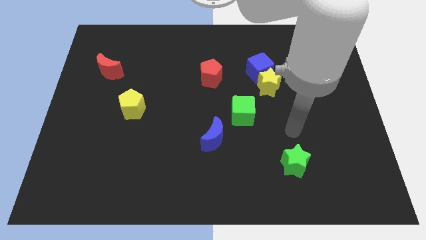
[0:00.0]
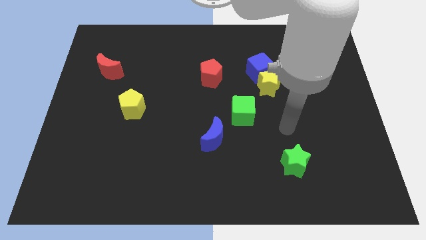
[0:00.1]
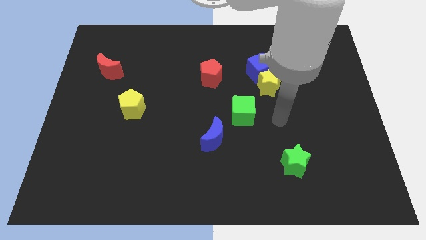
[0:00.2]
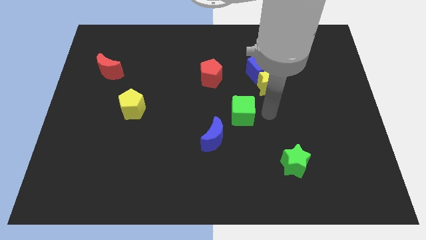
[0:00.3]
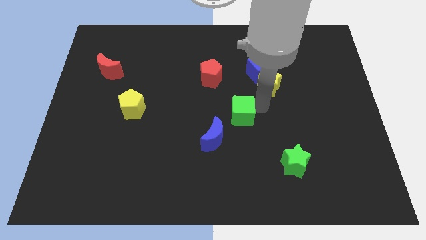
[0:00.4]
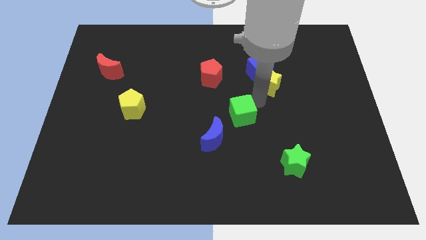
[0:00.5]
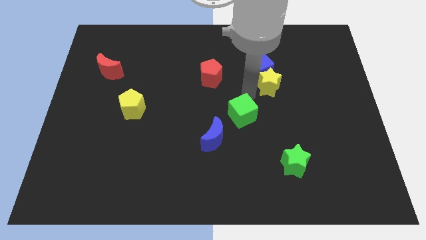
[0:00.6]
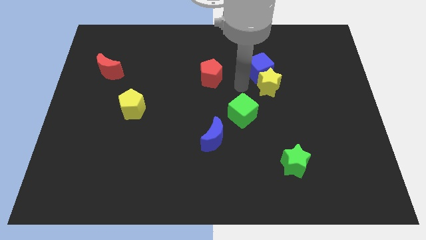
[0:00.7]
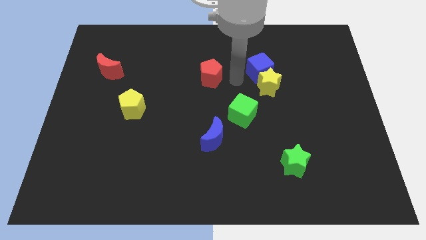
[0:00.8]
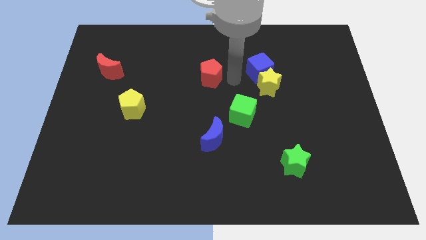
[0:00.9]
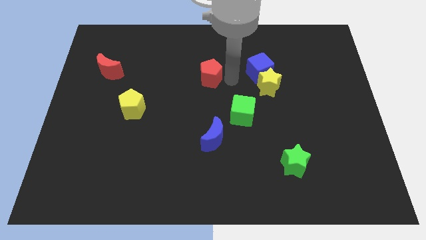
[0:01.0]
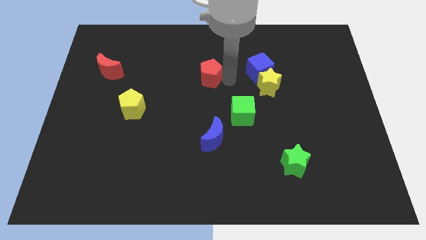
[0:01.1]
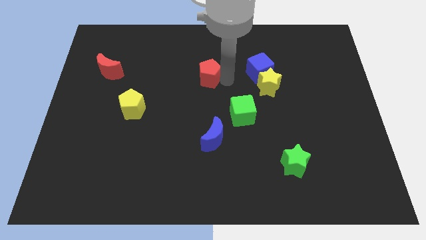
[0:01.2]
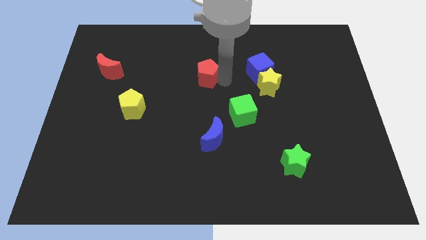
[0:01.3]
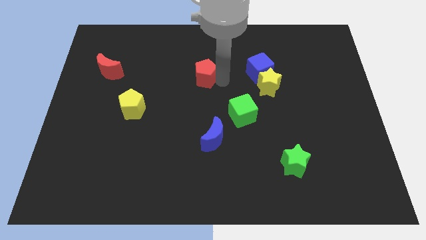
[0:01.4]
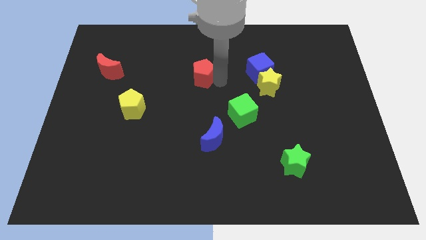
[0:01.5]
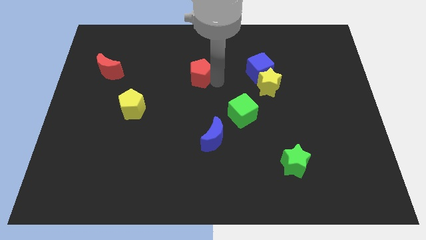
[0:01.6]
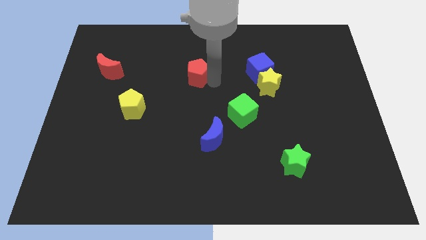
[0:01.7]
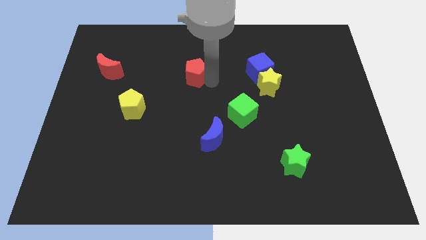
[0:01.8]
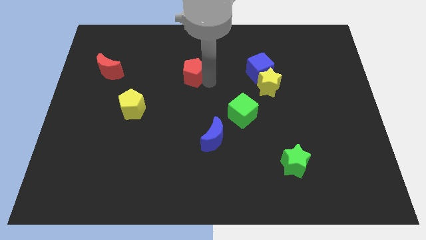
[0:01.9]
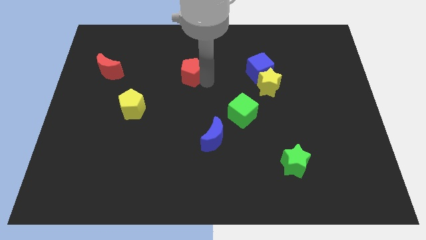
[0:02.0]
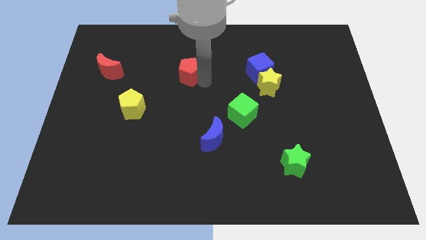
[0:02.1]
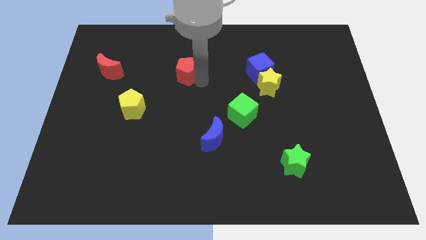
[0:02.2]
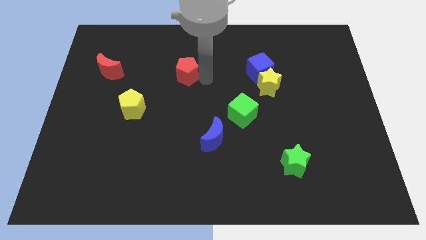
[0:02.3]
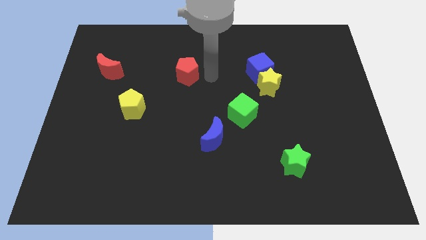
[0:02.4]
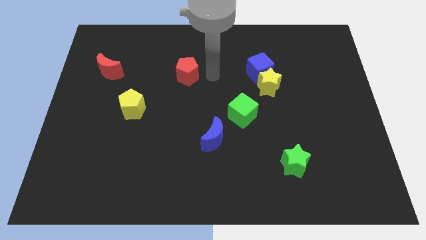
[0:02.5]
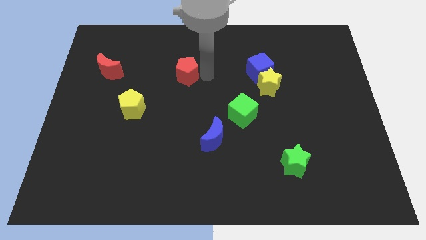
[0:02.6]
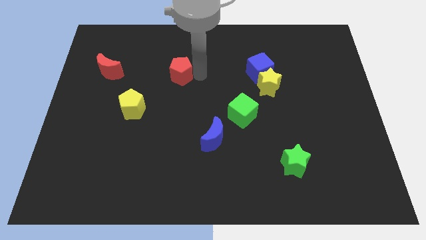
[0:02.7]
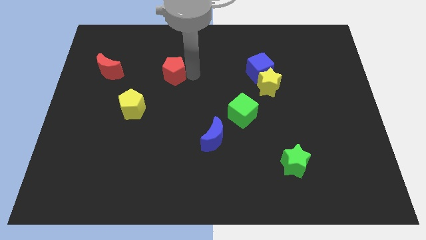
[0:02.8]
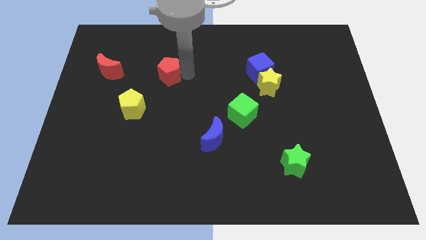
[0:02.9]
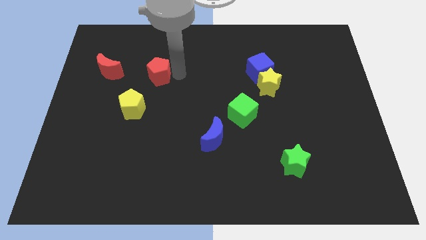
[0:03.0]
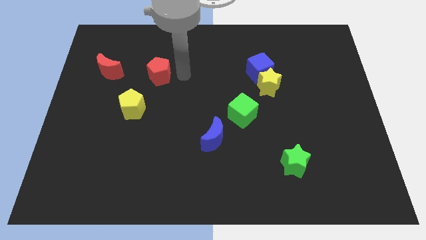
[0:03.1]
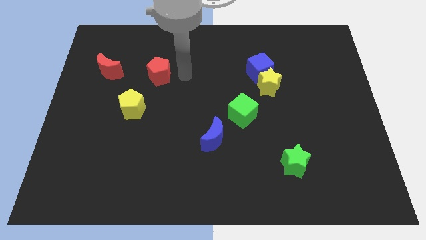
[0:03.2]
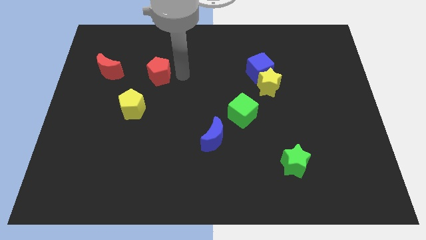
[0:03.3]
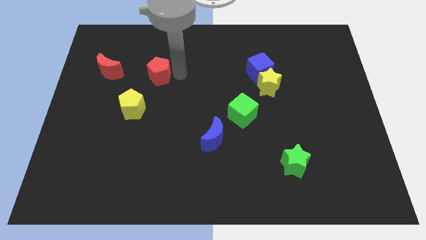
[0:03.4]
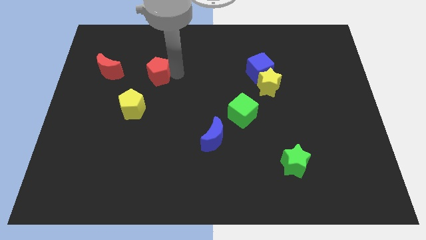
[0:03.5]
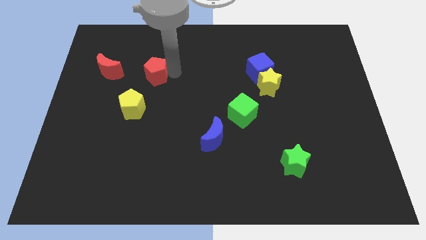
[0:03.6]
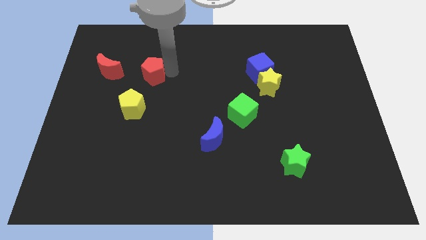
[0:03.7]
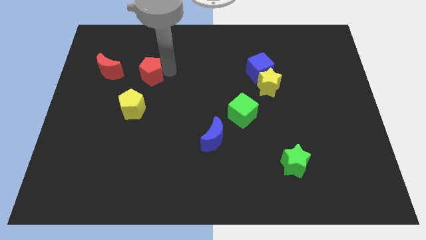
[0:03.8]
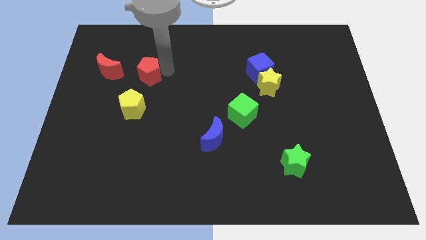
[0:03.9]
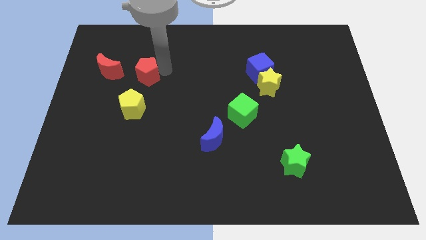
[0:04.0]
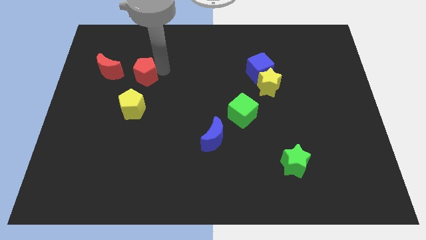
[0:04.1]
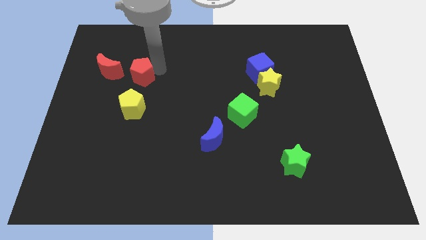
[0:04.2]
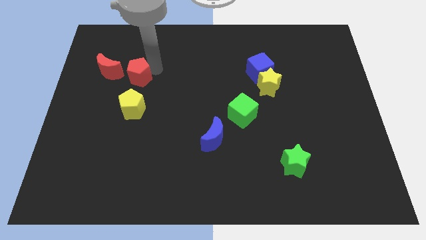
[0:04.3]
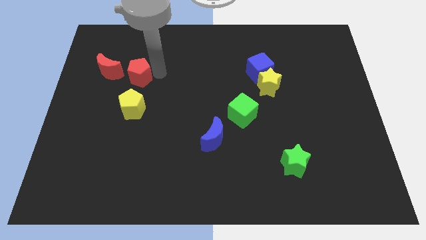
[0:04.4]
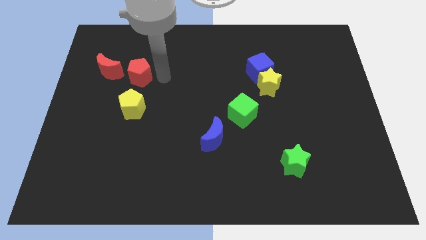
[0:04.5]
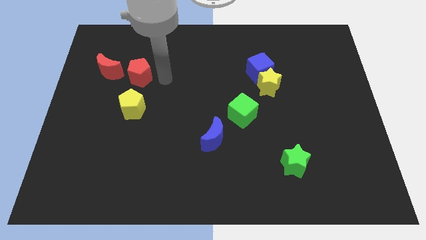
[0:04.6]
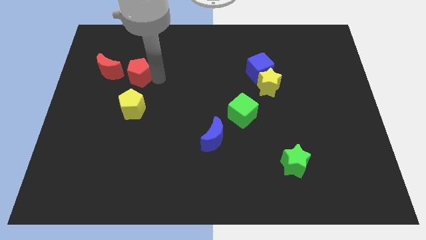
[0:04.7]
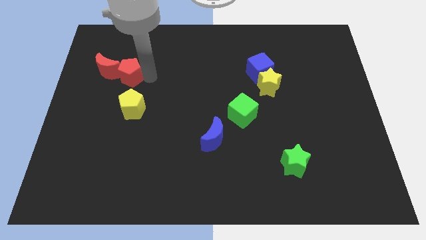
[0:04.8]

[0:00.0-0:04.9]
slide the red pentagon next to the red moon

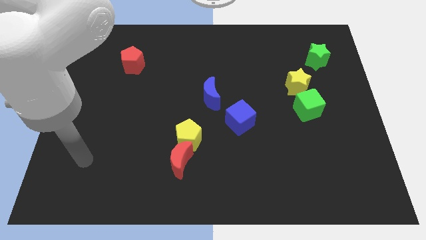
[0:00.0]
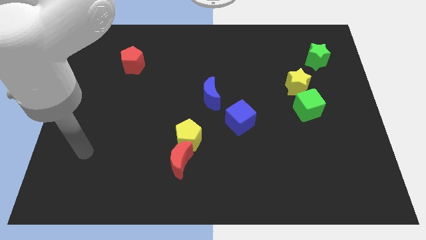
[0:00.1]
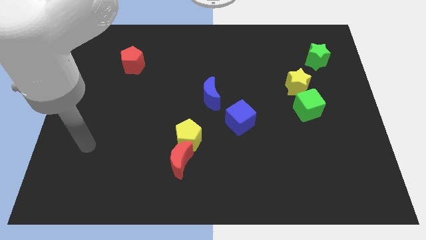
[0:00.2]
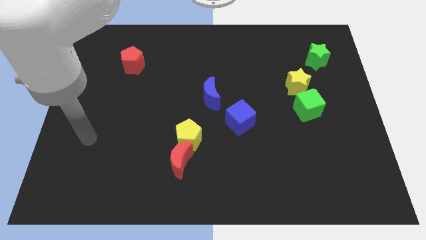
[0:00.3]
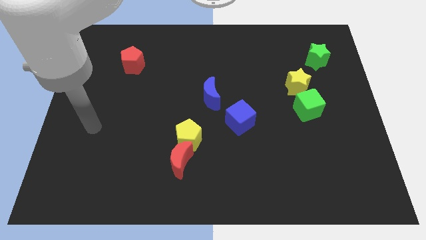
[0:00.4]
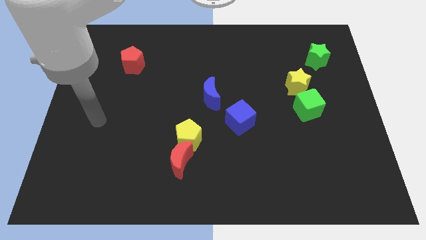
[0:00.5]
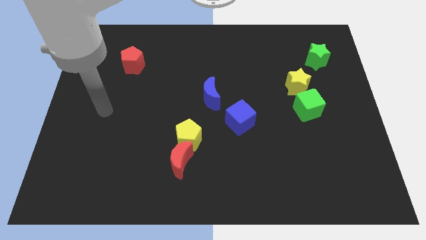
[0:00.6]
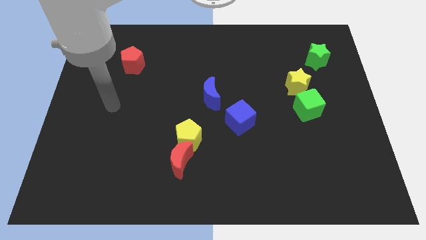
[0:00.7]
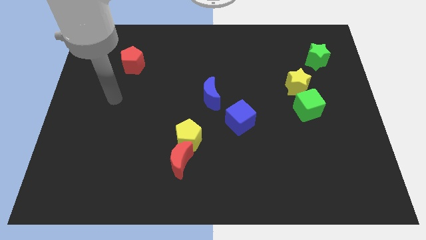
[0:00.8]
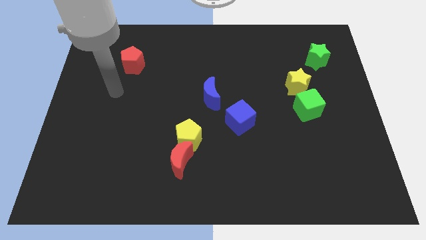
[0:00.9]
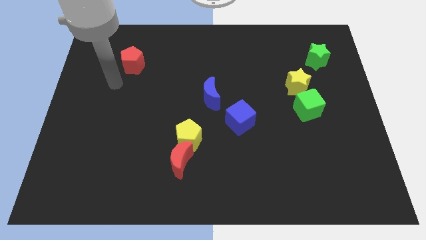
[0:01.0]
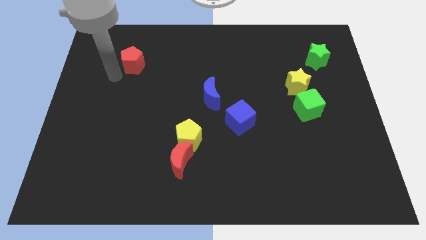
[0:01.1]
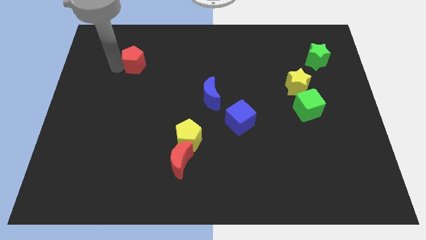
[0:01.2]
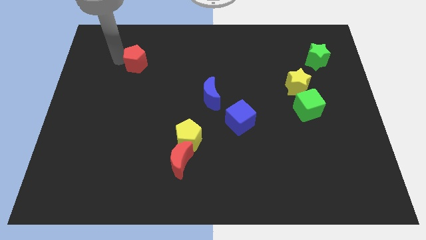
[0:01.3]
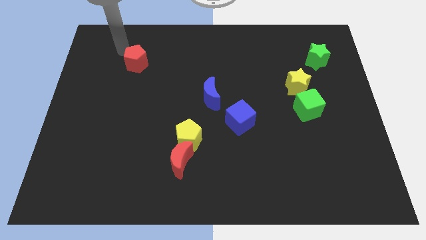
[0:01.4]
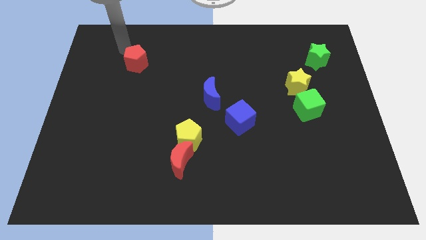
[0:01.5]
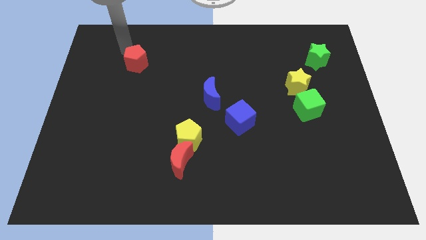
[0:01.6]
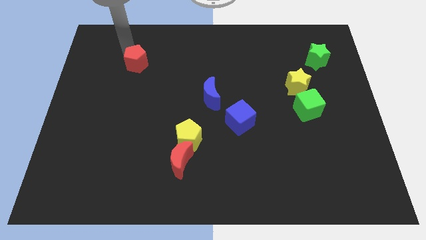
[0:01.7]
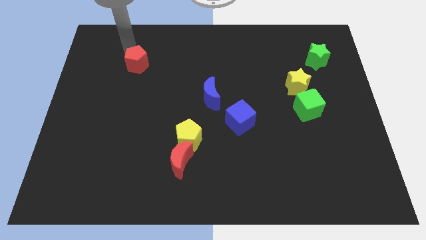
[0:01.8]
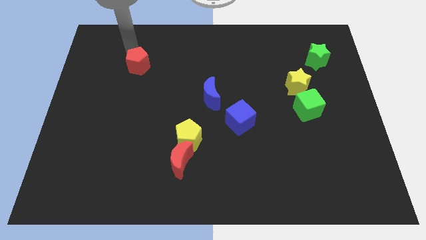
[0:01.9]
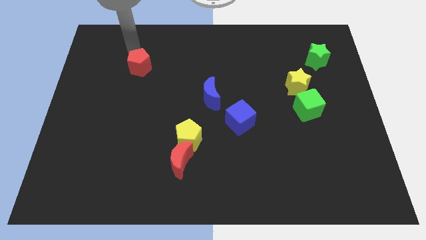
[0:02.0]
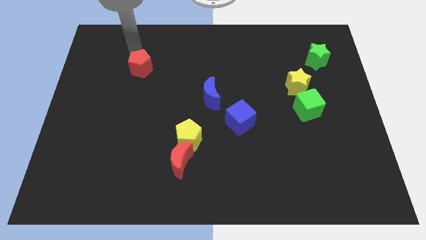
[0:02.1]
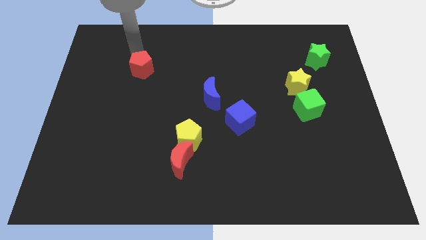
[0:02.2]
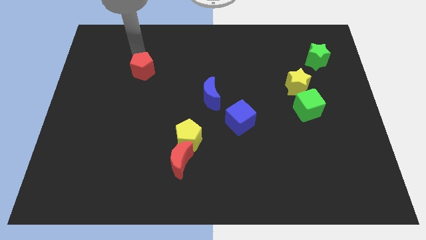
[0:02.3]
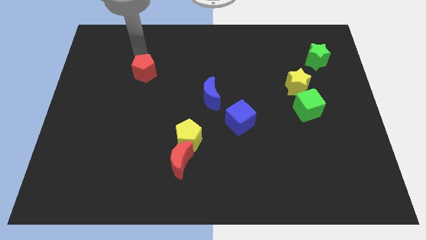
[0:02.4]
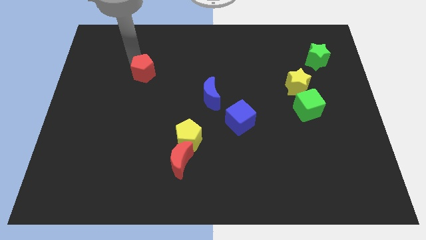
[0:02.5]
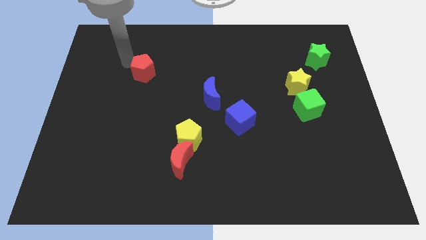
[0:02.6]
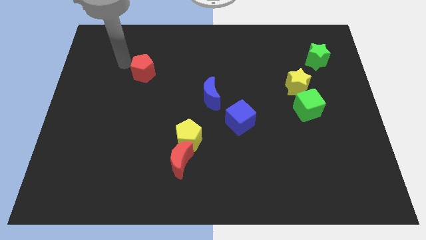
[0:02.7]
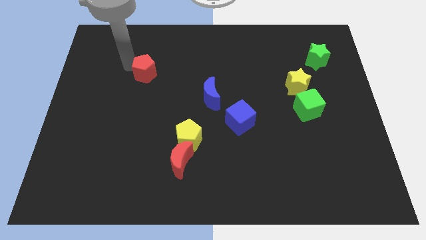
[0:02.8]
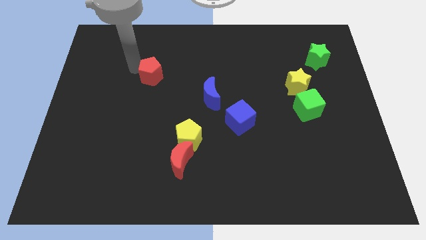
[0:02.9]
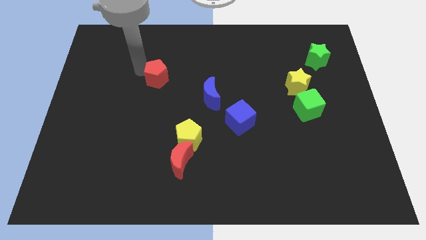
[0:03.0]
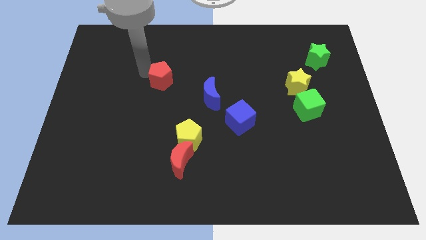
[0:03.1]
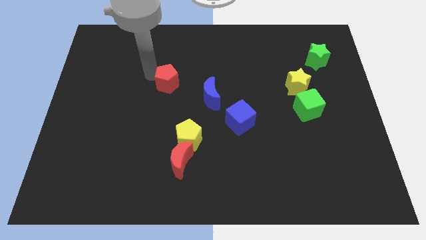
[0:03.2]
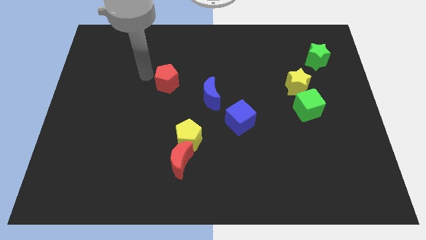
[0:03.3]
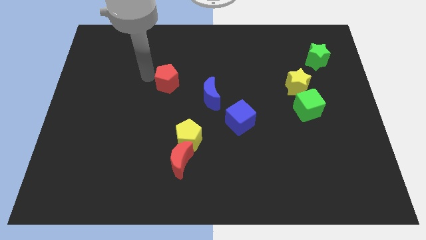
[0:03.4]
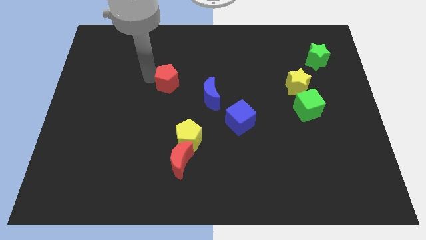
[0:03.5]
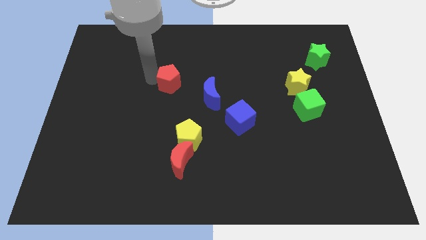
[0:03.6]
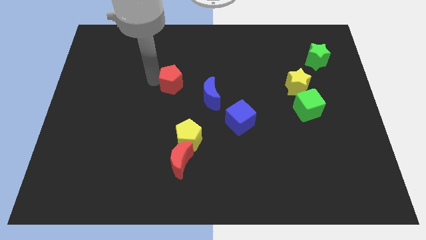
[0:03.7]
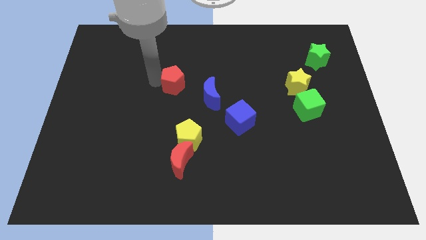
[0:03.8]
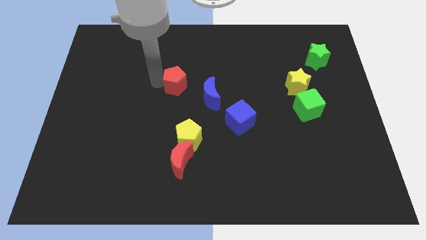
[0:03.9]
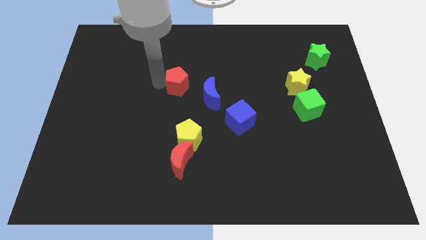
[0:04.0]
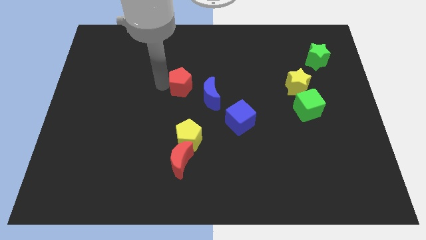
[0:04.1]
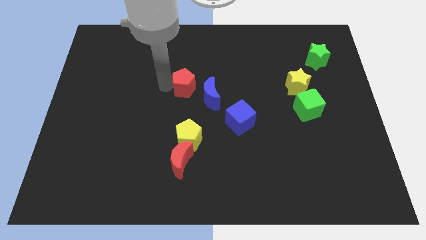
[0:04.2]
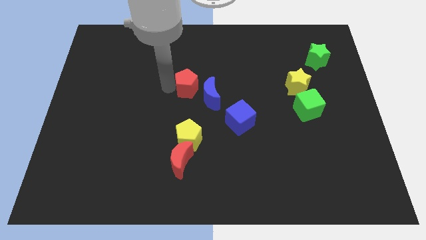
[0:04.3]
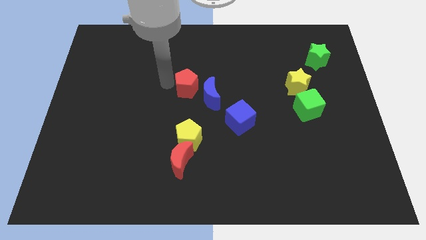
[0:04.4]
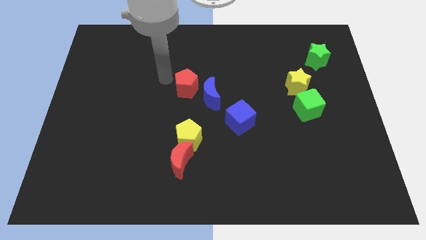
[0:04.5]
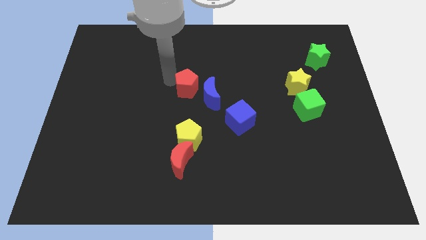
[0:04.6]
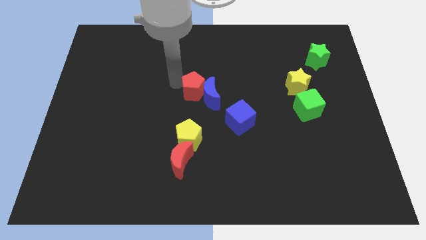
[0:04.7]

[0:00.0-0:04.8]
put the red pentagon next to the blue moon
